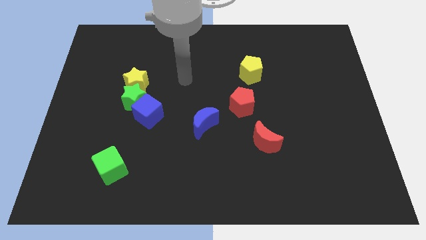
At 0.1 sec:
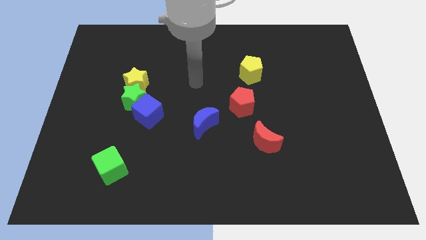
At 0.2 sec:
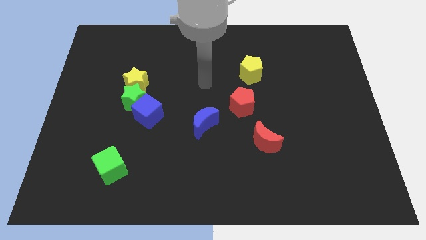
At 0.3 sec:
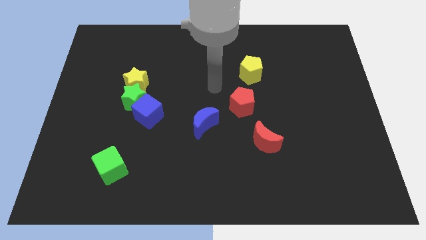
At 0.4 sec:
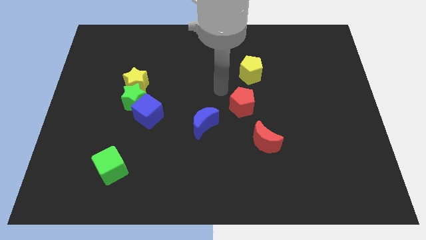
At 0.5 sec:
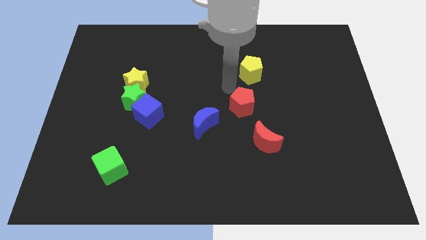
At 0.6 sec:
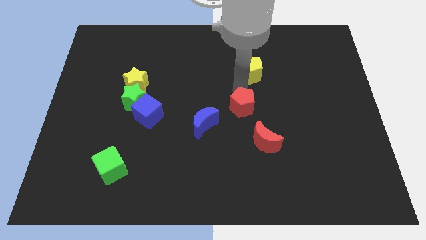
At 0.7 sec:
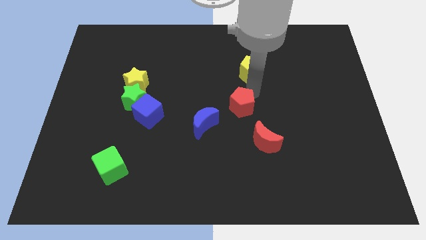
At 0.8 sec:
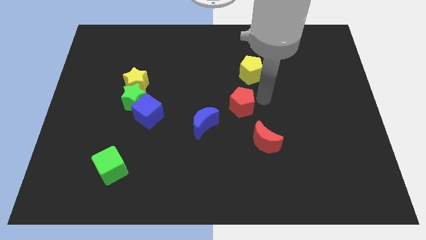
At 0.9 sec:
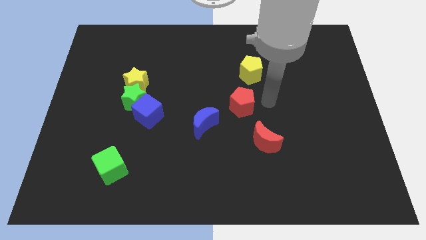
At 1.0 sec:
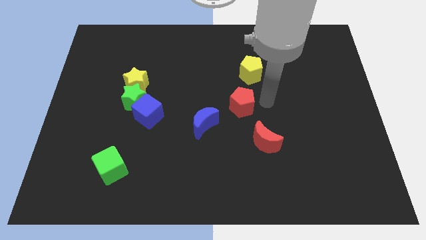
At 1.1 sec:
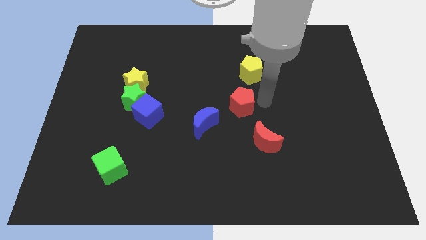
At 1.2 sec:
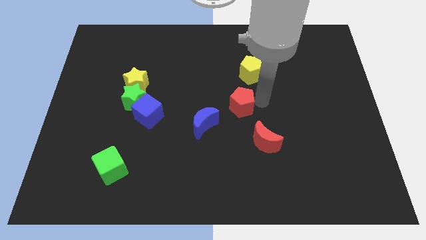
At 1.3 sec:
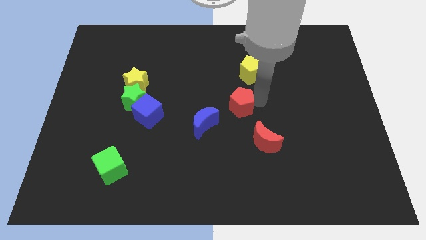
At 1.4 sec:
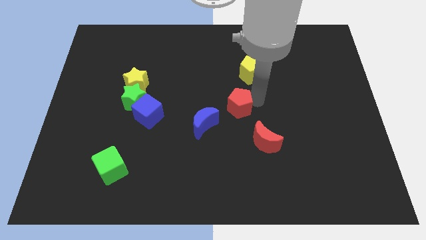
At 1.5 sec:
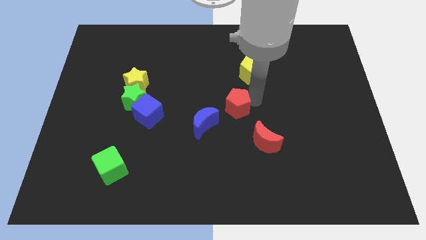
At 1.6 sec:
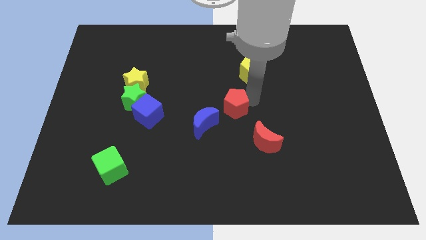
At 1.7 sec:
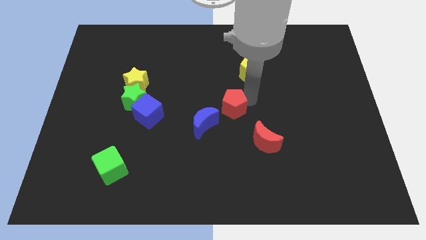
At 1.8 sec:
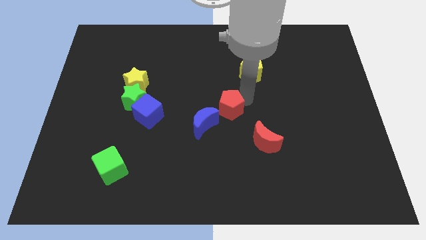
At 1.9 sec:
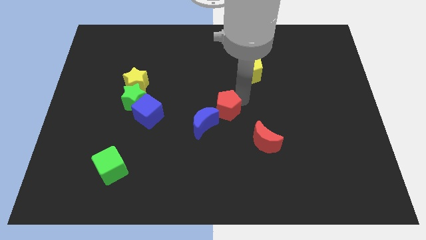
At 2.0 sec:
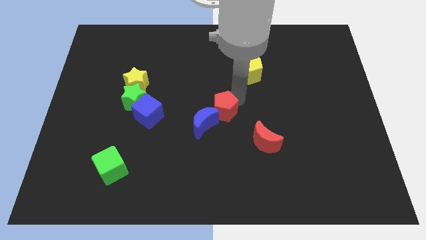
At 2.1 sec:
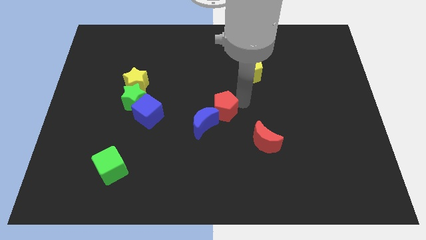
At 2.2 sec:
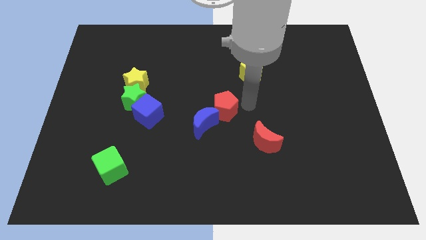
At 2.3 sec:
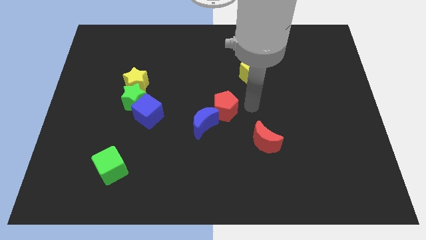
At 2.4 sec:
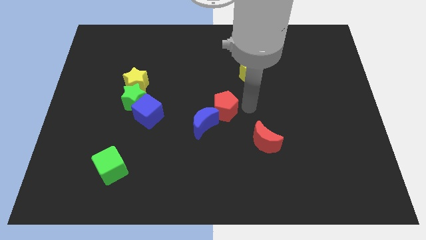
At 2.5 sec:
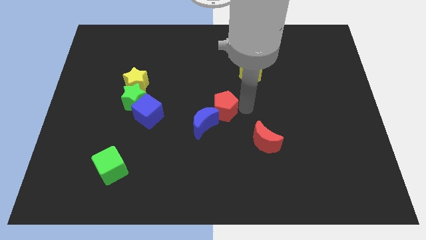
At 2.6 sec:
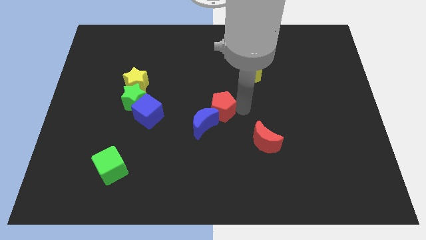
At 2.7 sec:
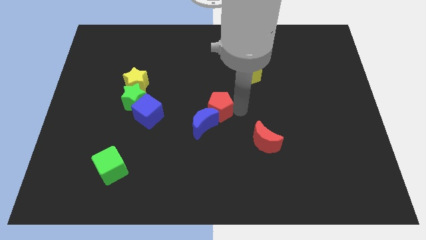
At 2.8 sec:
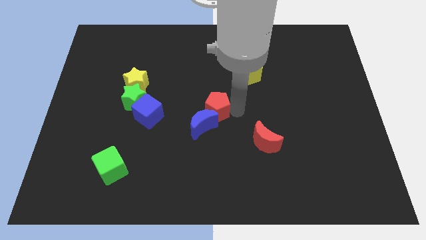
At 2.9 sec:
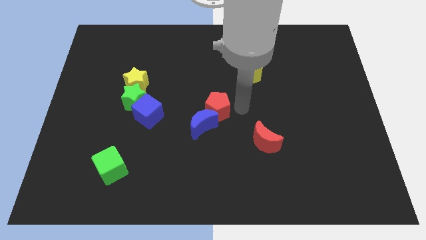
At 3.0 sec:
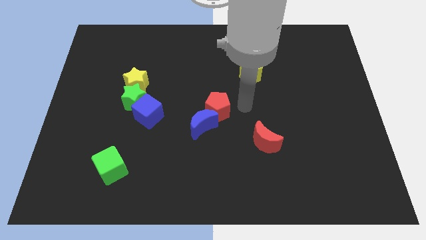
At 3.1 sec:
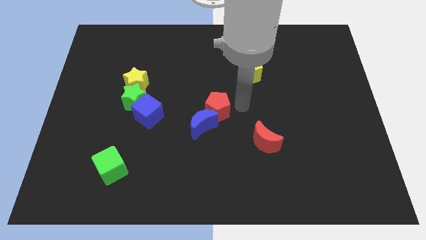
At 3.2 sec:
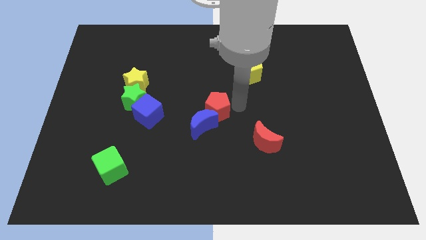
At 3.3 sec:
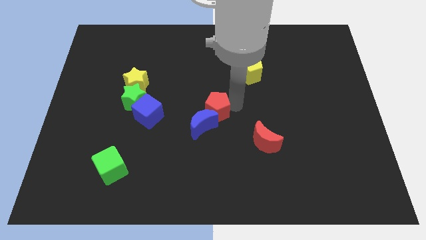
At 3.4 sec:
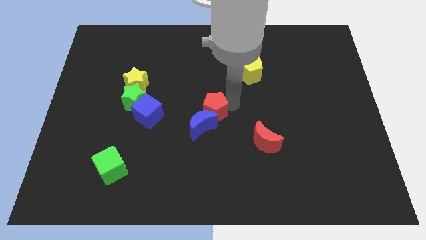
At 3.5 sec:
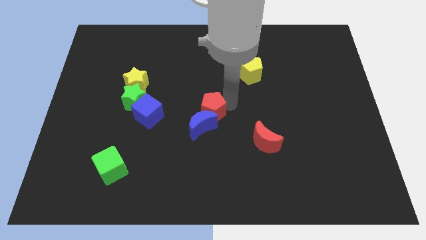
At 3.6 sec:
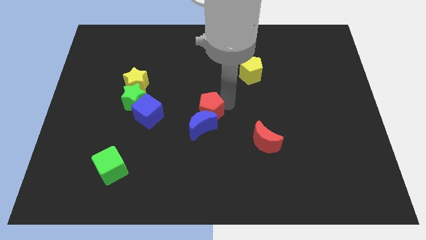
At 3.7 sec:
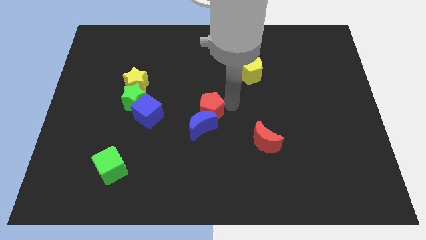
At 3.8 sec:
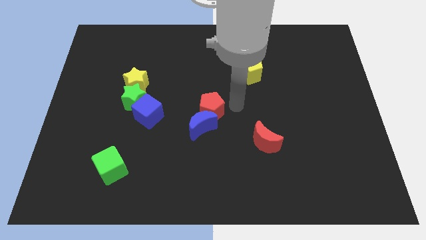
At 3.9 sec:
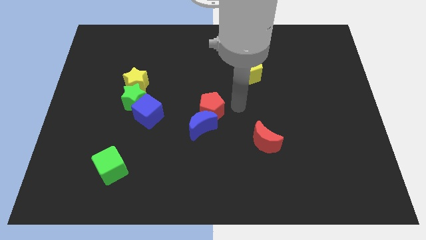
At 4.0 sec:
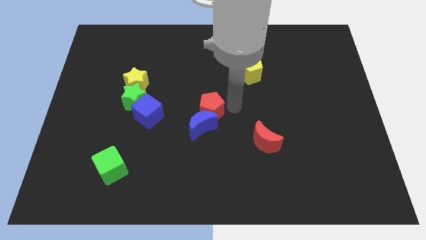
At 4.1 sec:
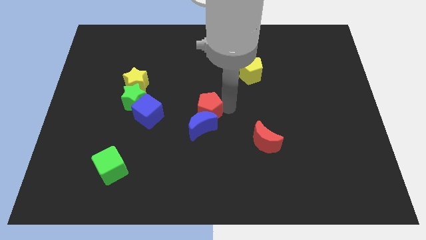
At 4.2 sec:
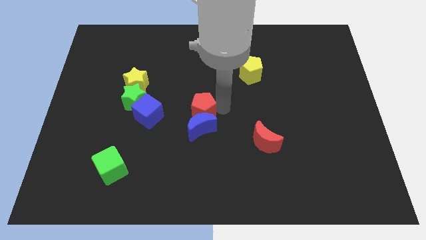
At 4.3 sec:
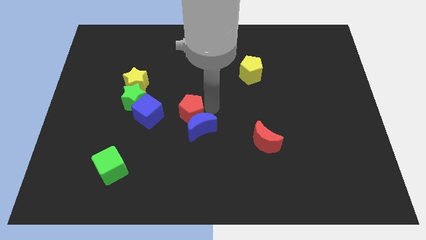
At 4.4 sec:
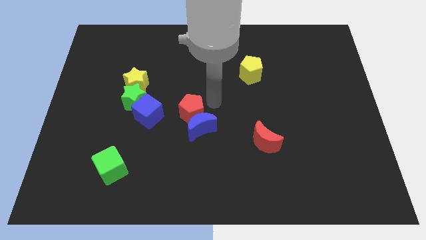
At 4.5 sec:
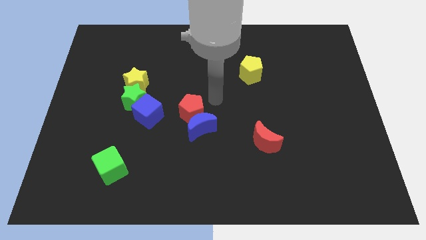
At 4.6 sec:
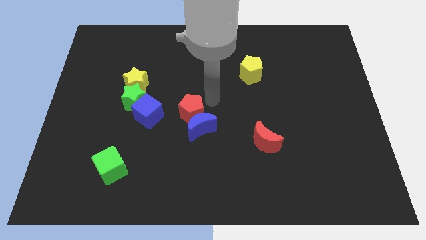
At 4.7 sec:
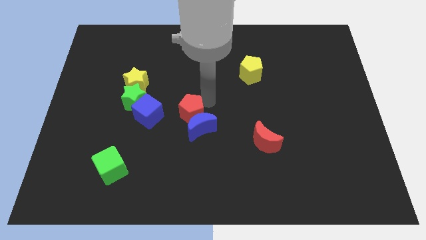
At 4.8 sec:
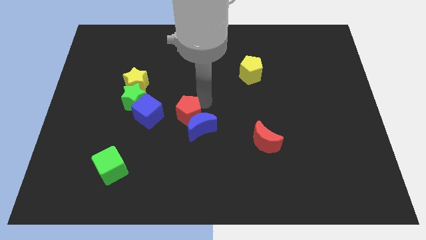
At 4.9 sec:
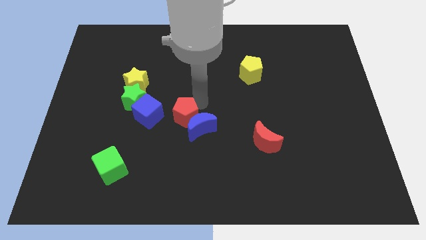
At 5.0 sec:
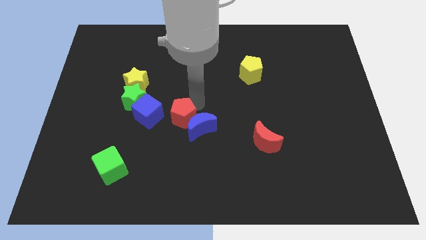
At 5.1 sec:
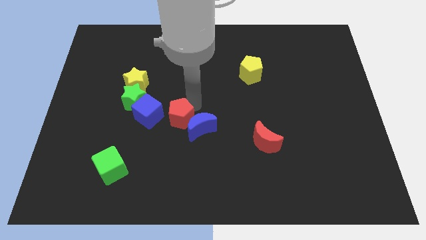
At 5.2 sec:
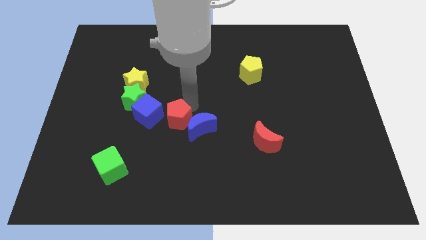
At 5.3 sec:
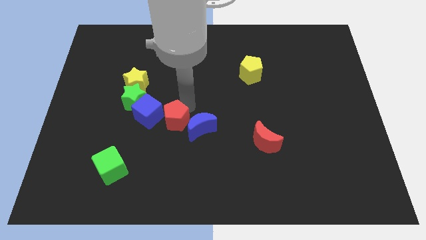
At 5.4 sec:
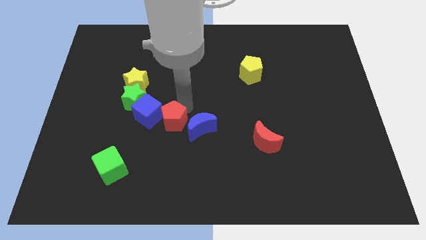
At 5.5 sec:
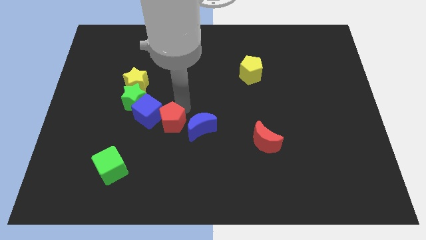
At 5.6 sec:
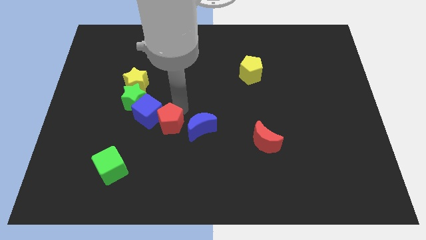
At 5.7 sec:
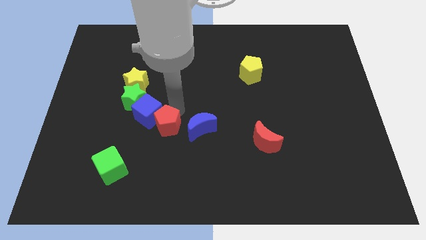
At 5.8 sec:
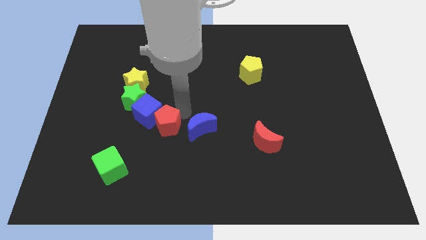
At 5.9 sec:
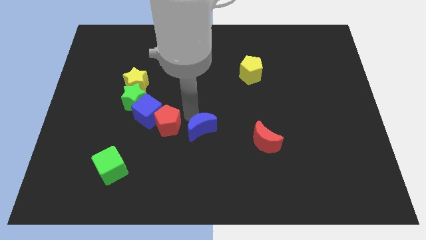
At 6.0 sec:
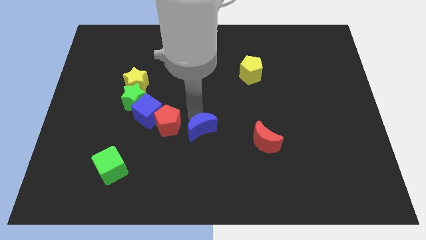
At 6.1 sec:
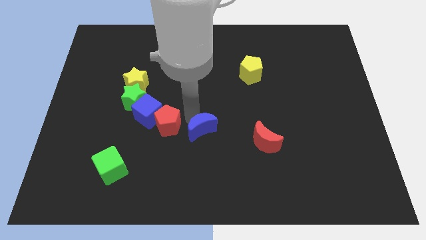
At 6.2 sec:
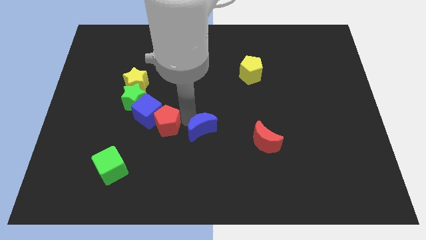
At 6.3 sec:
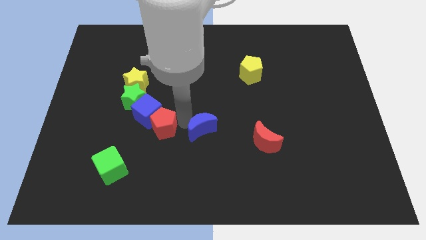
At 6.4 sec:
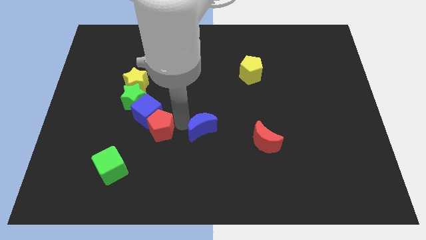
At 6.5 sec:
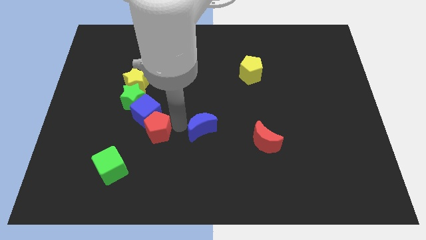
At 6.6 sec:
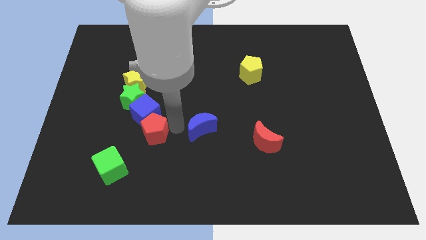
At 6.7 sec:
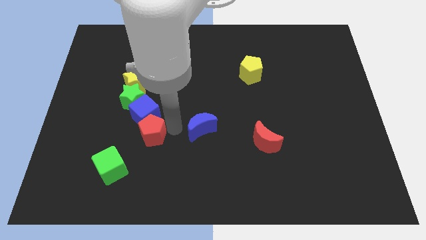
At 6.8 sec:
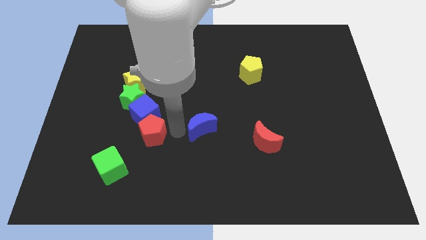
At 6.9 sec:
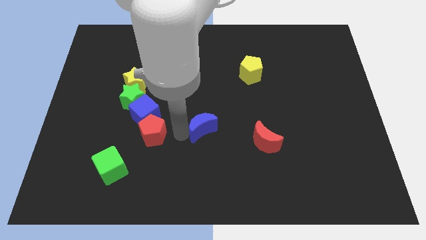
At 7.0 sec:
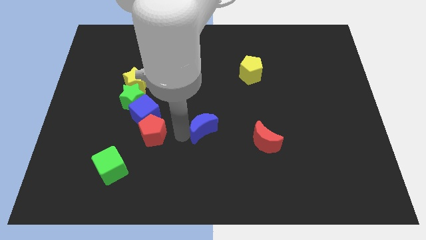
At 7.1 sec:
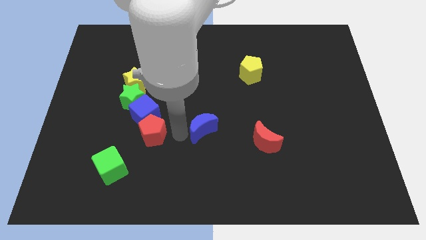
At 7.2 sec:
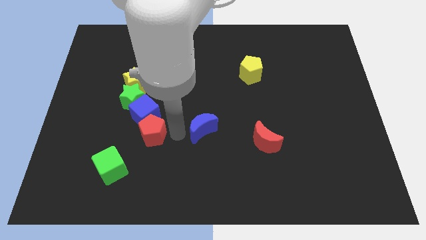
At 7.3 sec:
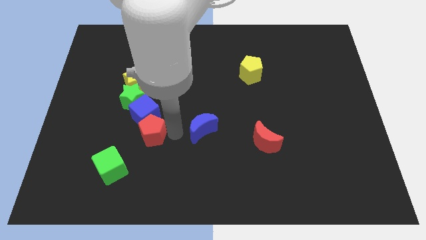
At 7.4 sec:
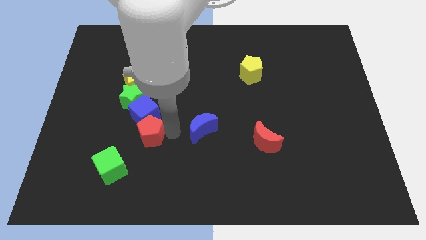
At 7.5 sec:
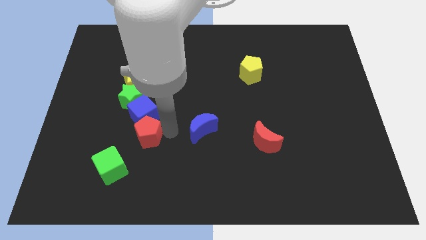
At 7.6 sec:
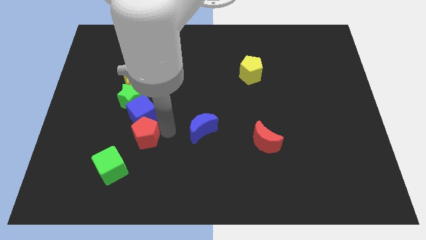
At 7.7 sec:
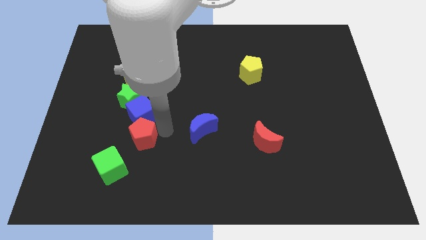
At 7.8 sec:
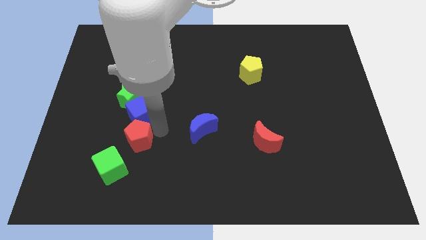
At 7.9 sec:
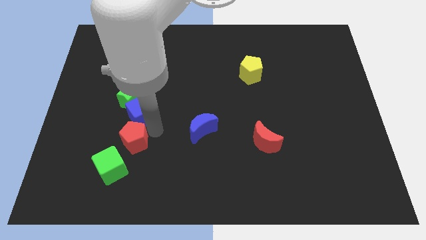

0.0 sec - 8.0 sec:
push the red pentagon left
